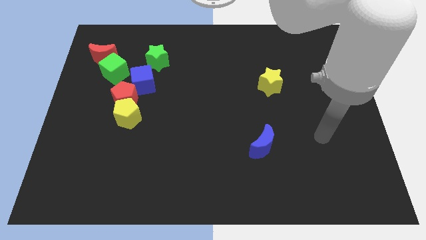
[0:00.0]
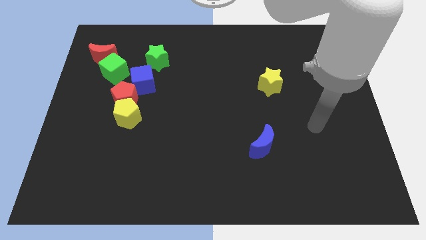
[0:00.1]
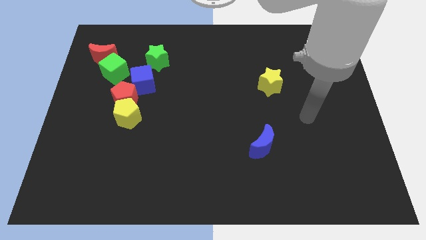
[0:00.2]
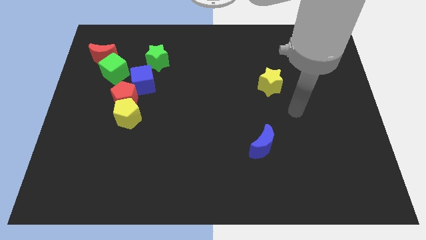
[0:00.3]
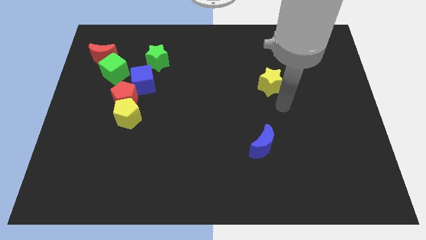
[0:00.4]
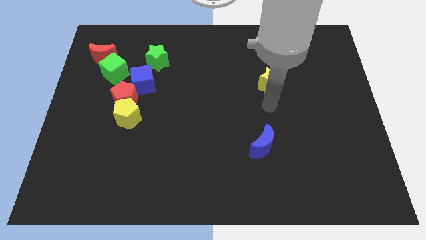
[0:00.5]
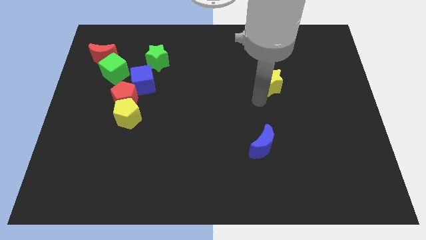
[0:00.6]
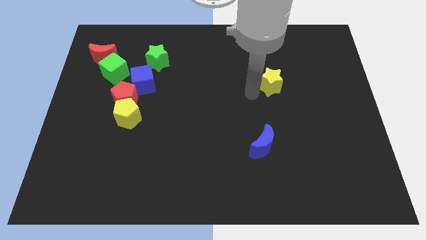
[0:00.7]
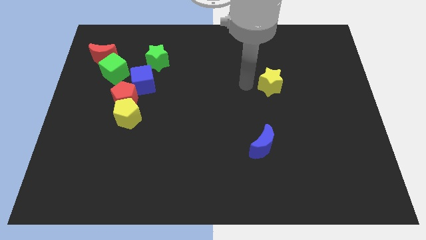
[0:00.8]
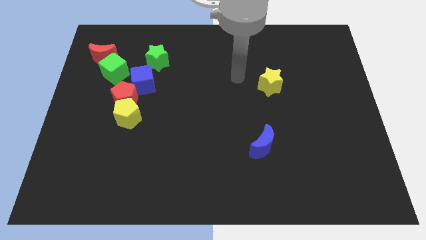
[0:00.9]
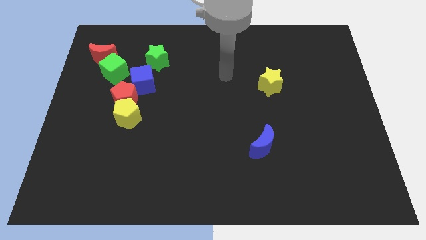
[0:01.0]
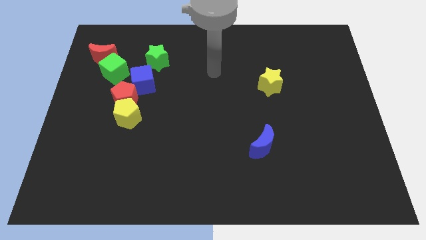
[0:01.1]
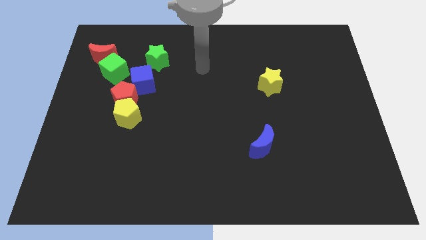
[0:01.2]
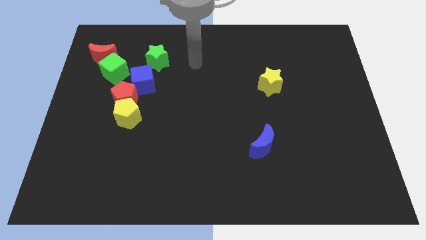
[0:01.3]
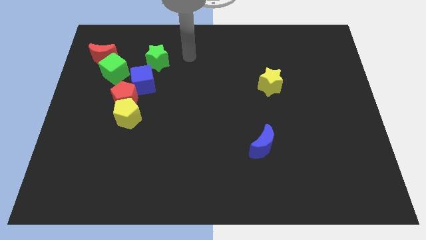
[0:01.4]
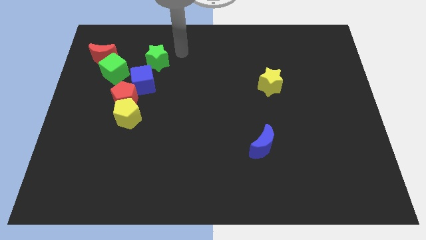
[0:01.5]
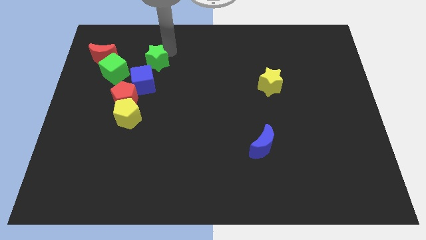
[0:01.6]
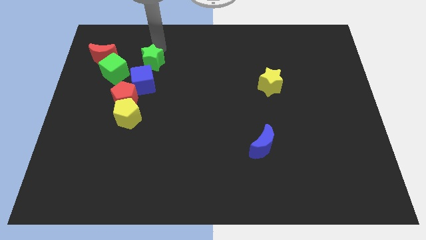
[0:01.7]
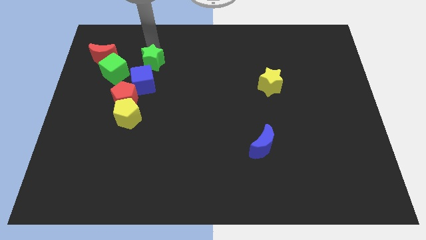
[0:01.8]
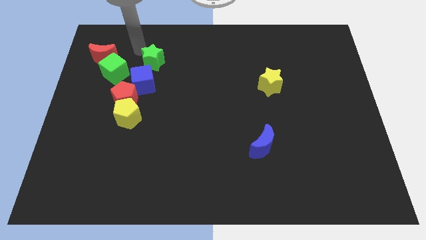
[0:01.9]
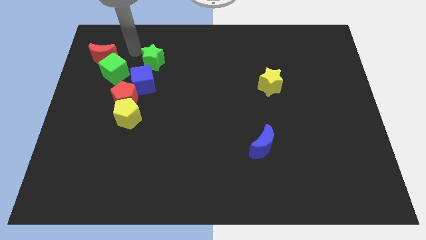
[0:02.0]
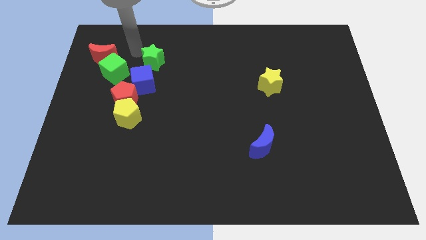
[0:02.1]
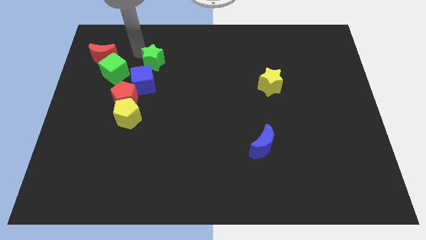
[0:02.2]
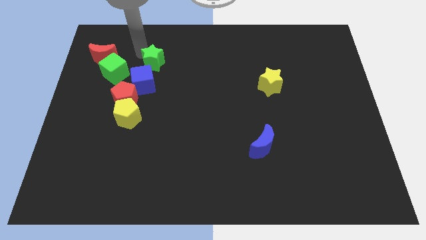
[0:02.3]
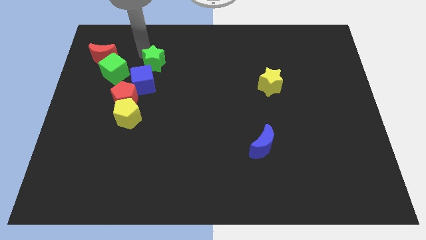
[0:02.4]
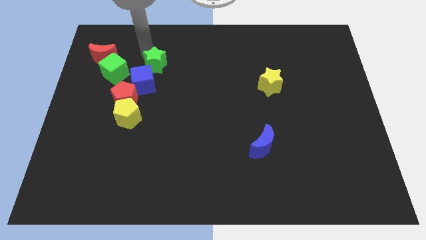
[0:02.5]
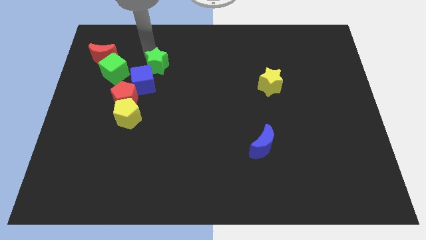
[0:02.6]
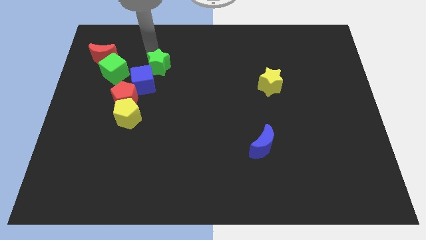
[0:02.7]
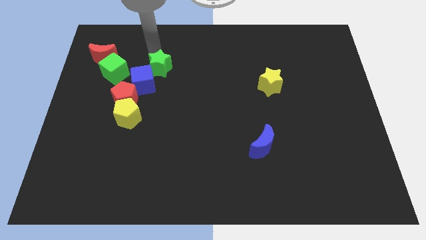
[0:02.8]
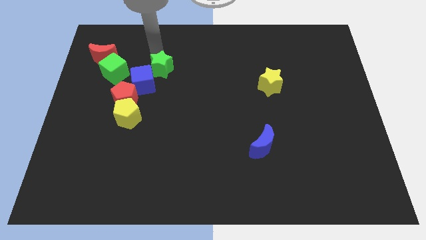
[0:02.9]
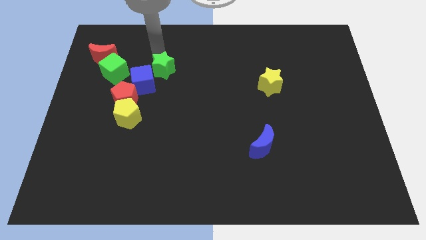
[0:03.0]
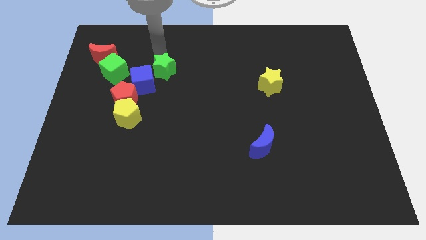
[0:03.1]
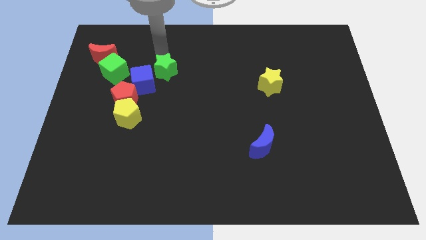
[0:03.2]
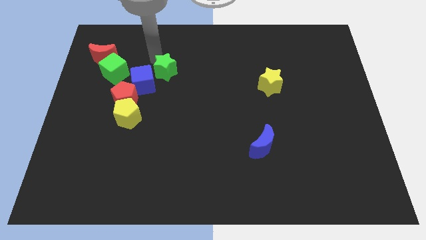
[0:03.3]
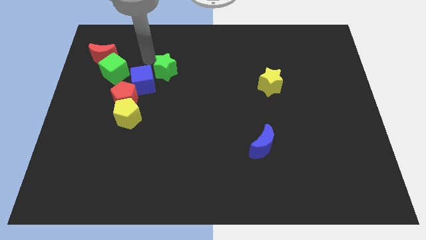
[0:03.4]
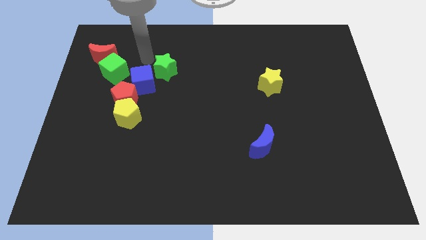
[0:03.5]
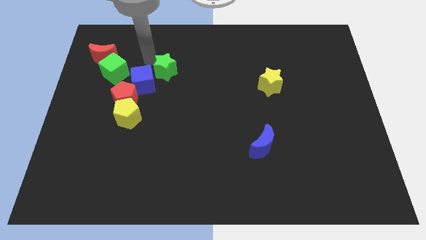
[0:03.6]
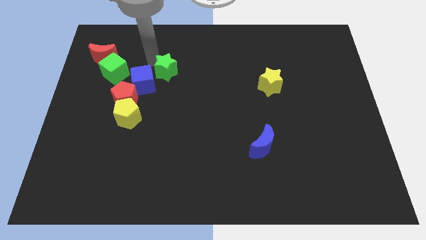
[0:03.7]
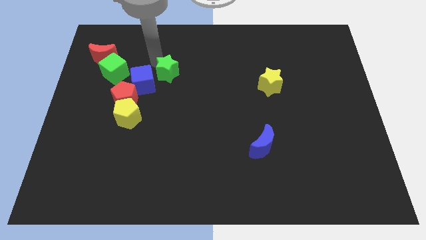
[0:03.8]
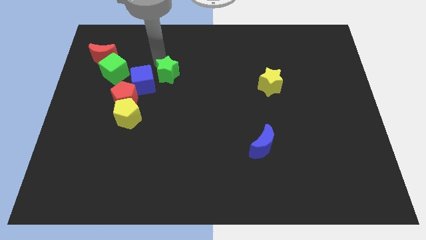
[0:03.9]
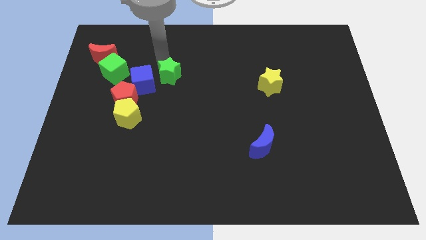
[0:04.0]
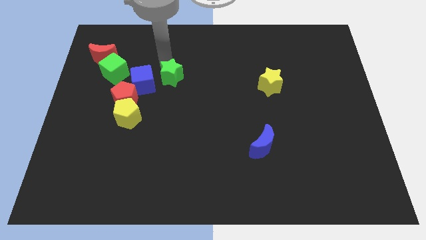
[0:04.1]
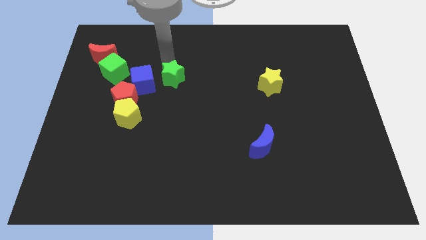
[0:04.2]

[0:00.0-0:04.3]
slightly push the green star downwards and then to the right

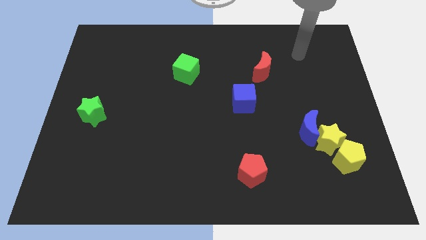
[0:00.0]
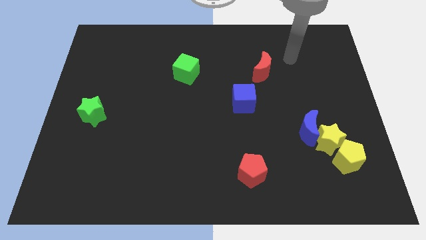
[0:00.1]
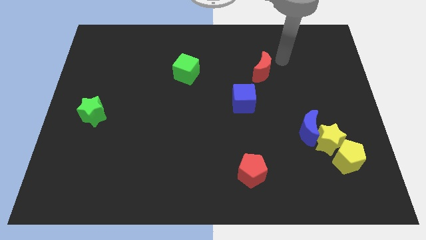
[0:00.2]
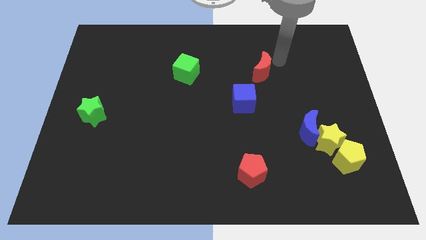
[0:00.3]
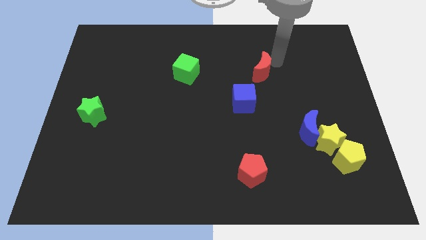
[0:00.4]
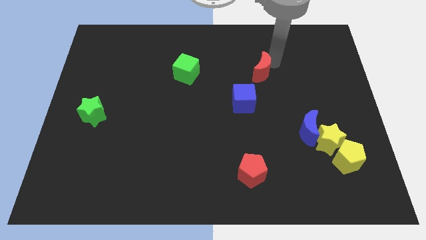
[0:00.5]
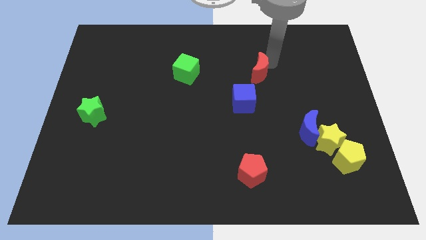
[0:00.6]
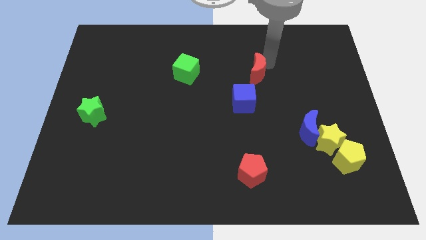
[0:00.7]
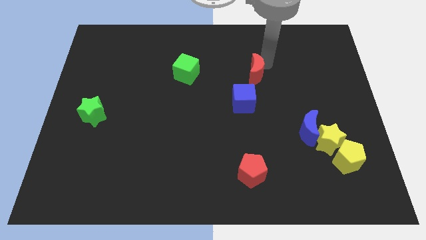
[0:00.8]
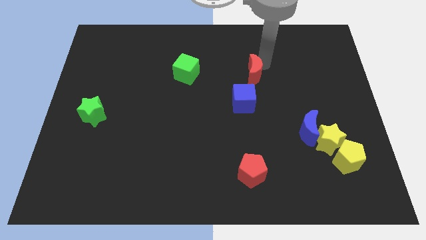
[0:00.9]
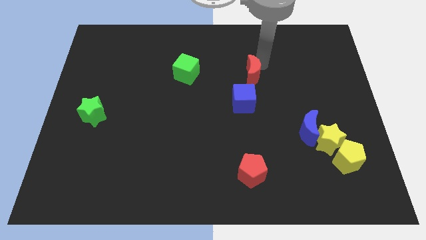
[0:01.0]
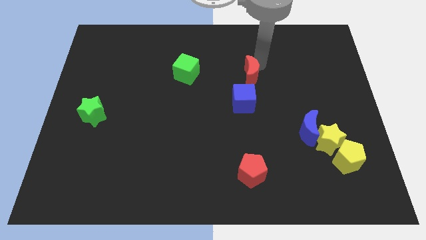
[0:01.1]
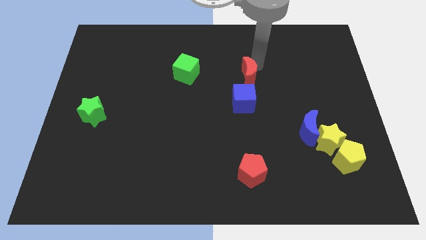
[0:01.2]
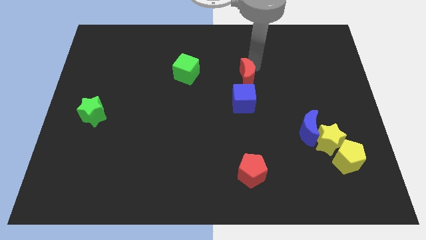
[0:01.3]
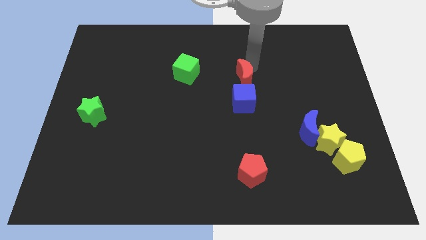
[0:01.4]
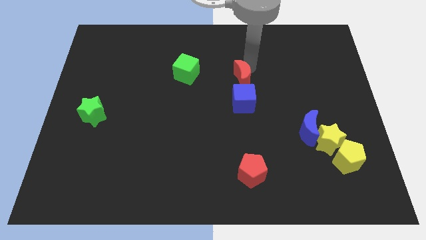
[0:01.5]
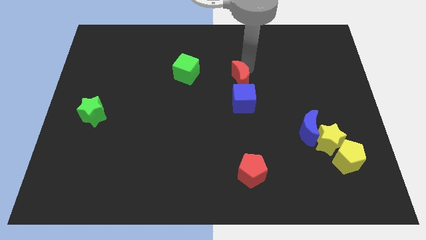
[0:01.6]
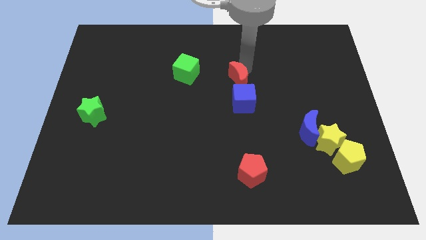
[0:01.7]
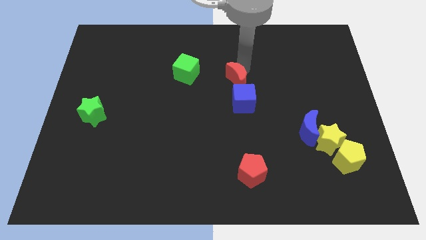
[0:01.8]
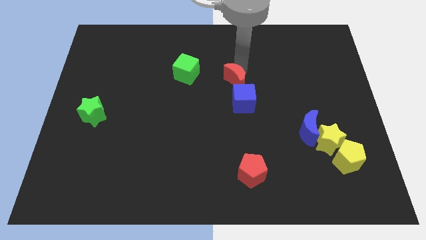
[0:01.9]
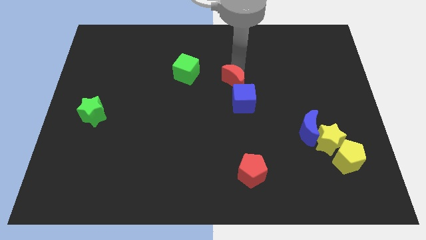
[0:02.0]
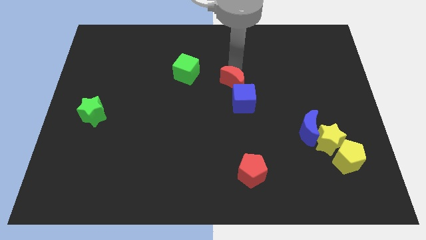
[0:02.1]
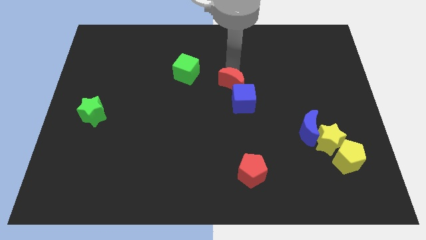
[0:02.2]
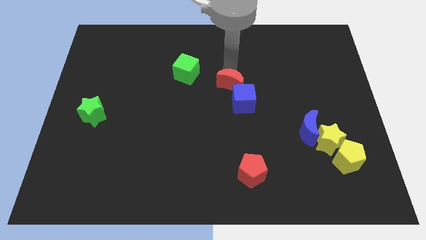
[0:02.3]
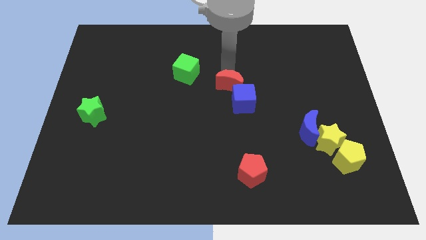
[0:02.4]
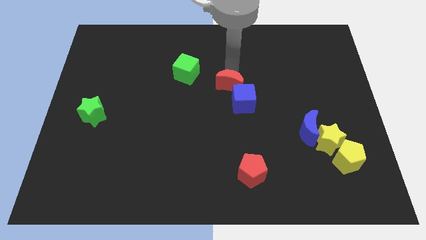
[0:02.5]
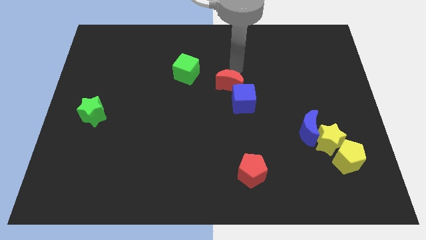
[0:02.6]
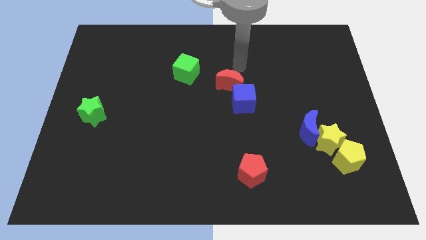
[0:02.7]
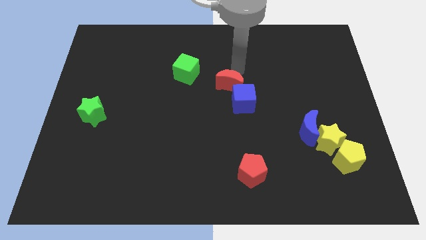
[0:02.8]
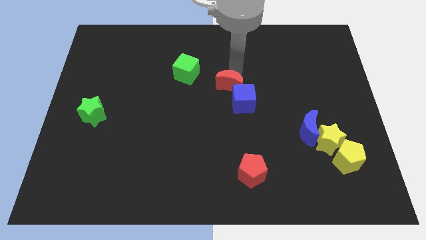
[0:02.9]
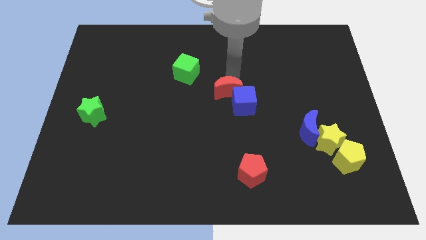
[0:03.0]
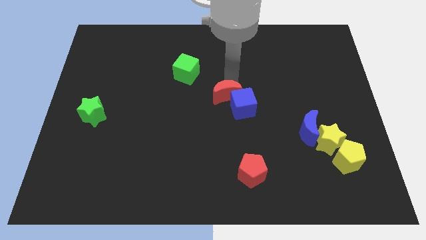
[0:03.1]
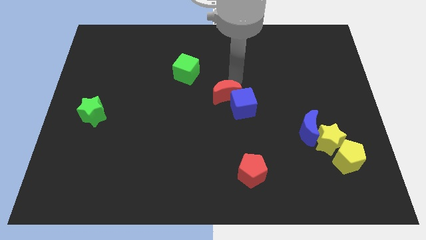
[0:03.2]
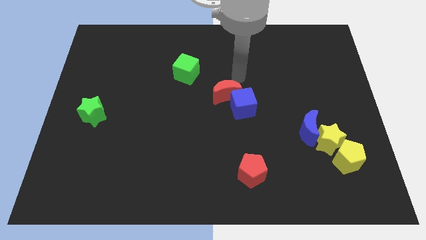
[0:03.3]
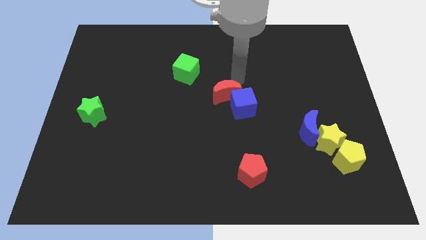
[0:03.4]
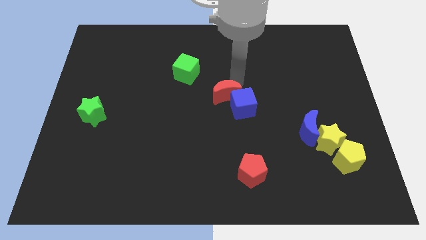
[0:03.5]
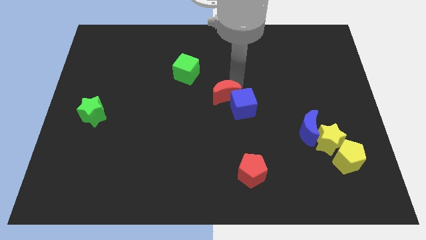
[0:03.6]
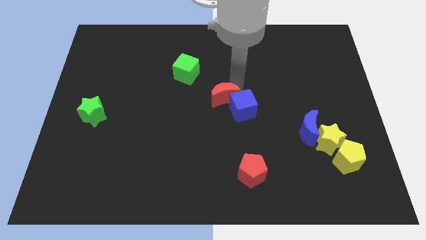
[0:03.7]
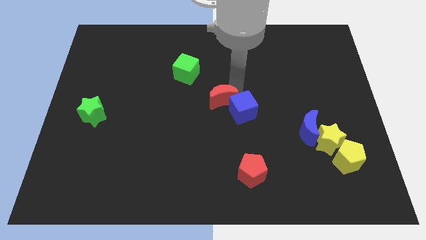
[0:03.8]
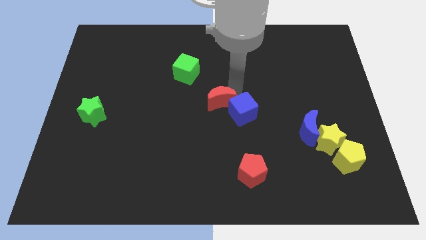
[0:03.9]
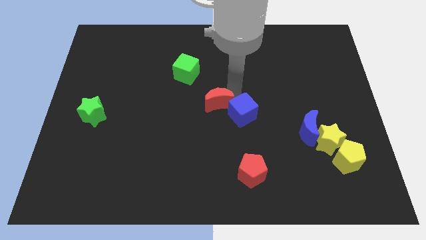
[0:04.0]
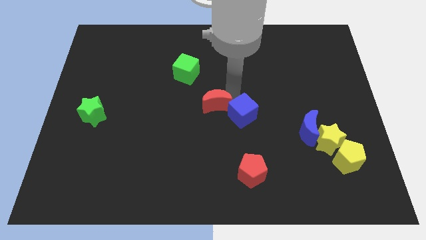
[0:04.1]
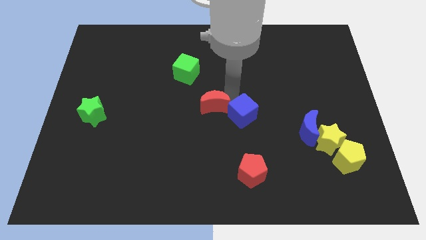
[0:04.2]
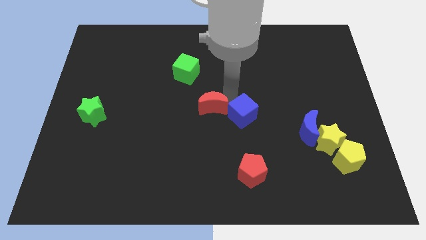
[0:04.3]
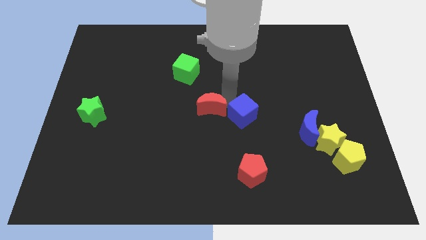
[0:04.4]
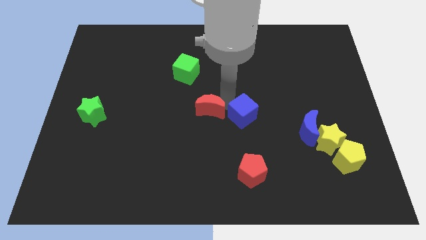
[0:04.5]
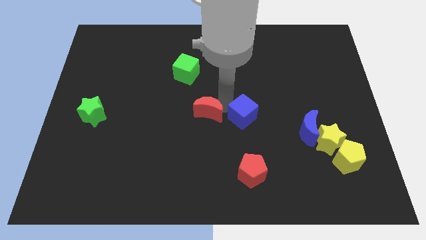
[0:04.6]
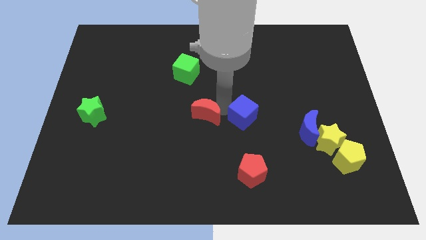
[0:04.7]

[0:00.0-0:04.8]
move the red moon downwards and to the left
